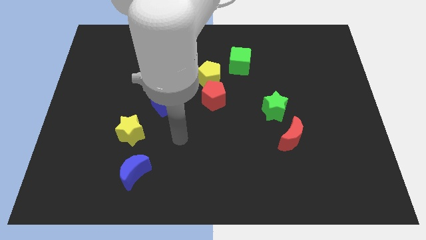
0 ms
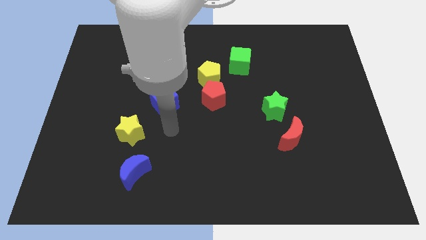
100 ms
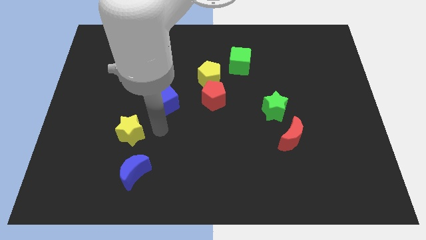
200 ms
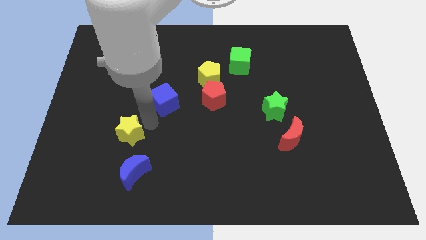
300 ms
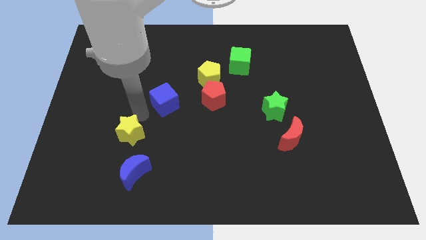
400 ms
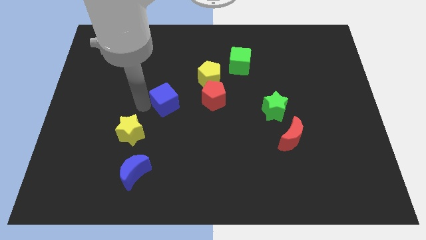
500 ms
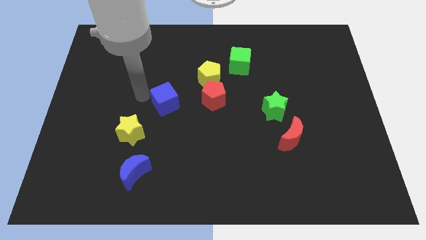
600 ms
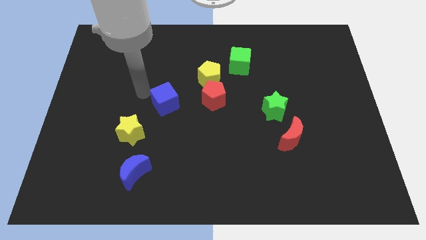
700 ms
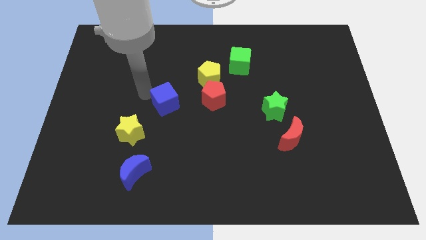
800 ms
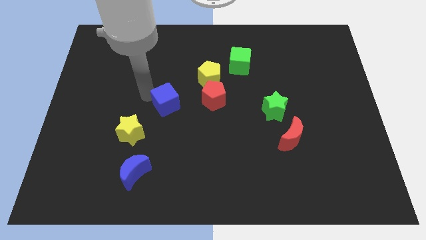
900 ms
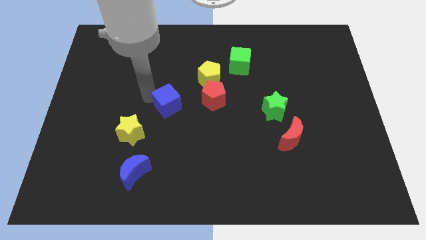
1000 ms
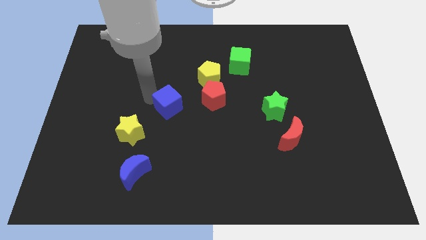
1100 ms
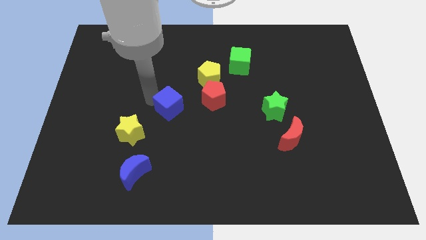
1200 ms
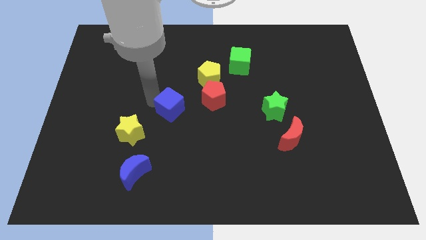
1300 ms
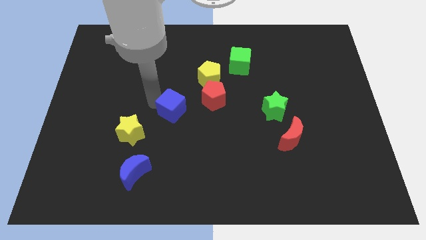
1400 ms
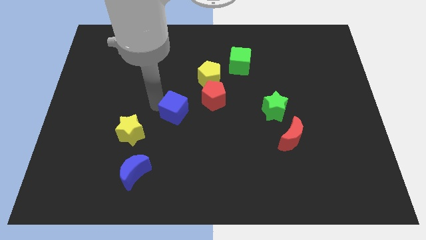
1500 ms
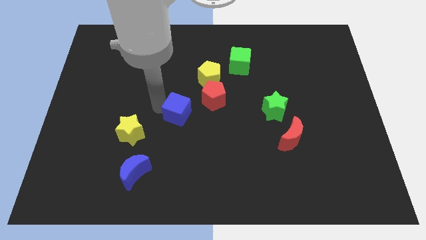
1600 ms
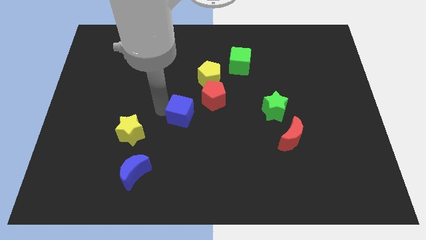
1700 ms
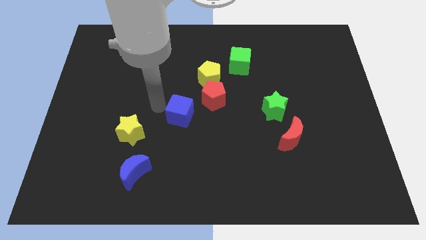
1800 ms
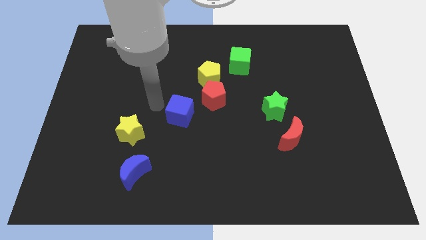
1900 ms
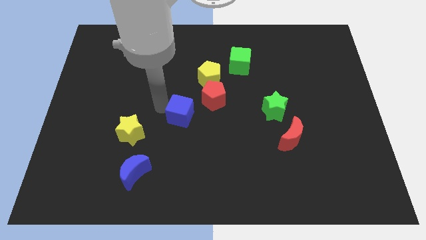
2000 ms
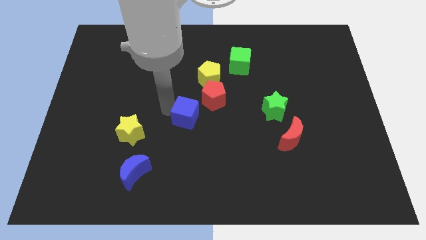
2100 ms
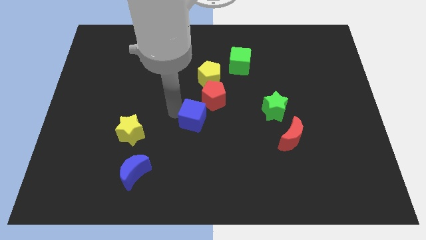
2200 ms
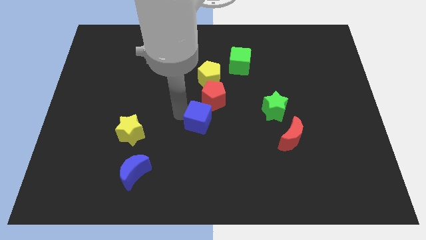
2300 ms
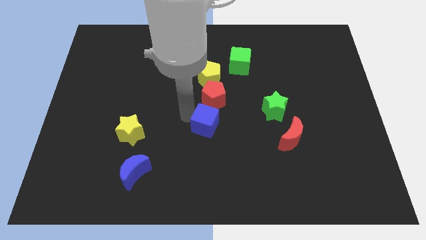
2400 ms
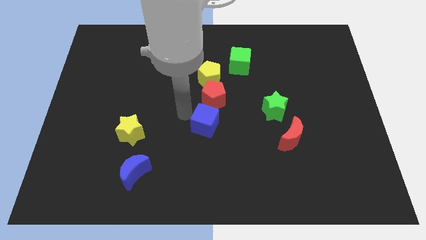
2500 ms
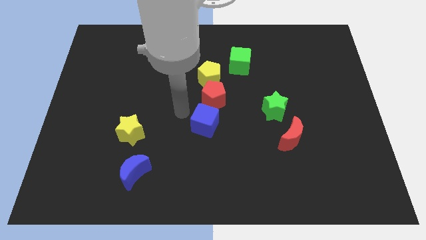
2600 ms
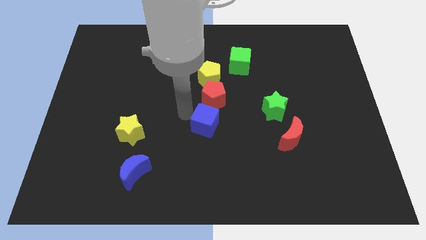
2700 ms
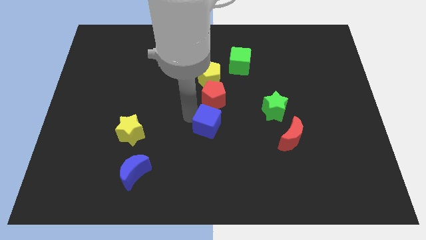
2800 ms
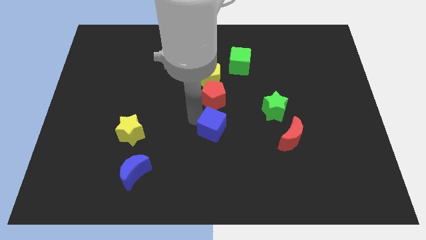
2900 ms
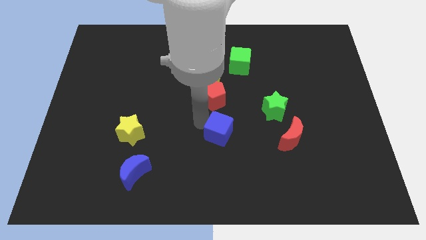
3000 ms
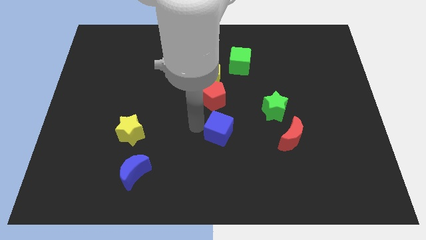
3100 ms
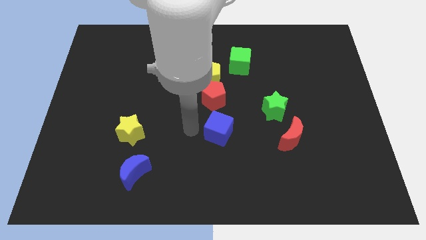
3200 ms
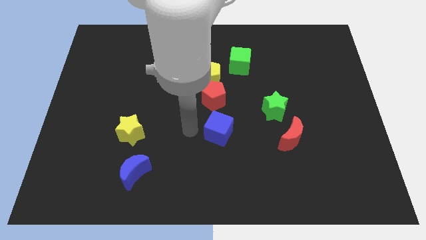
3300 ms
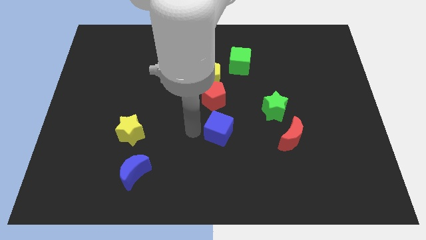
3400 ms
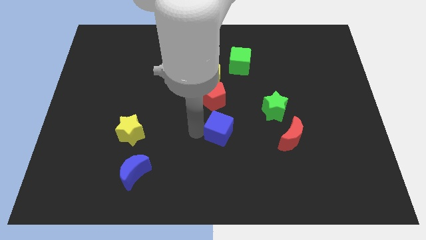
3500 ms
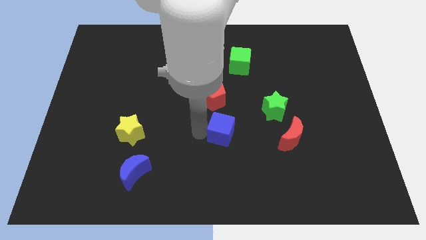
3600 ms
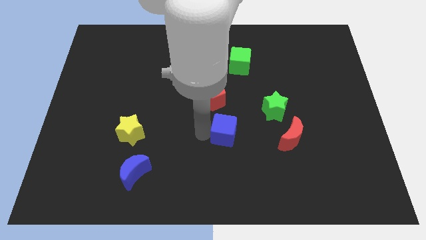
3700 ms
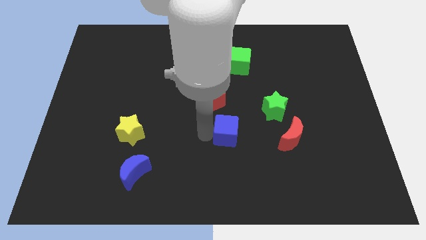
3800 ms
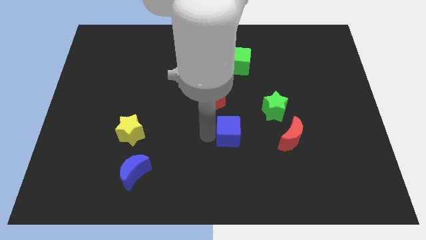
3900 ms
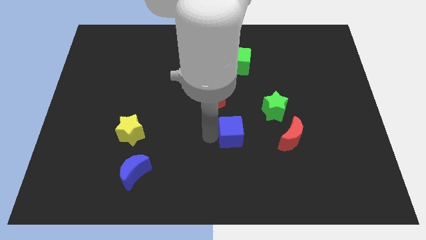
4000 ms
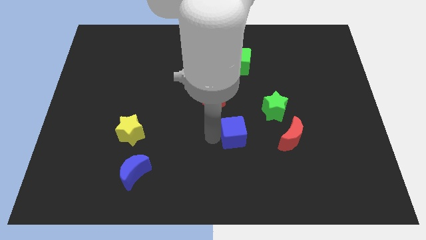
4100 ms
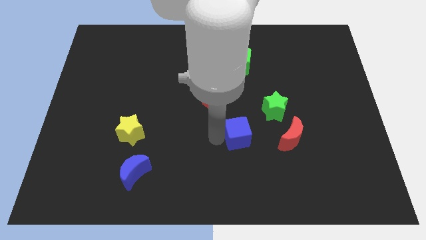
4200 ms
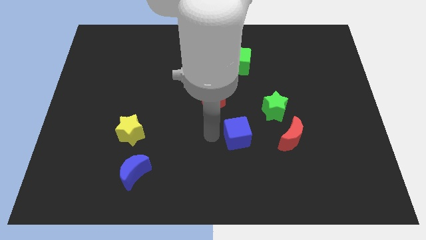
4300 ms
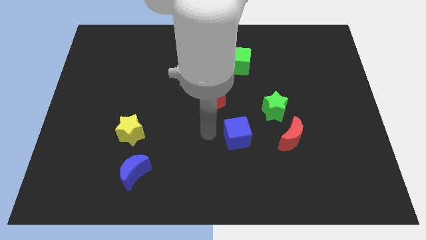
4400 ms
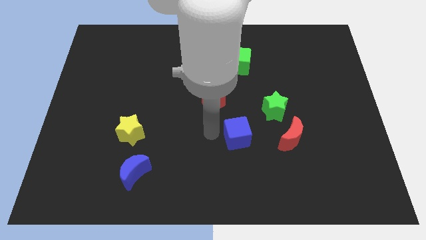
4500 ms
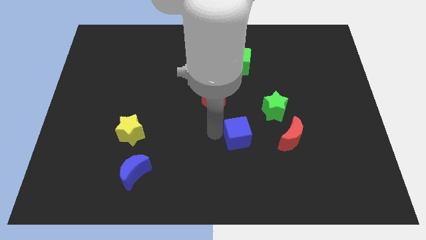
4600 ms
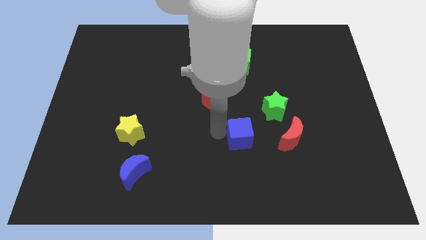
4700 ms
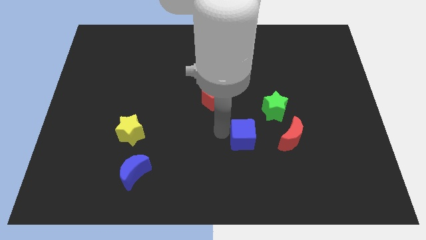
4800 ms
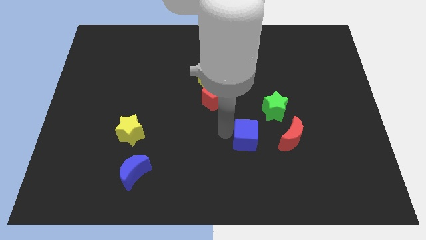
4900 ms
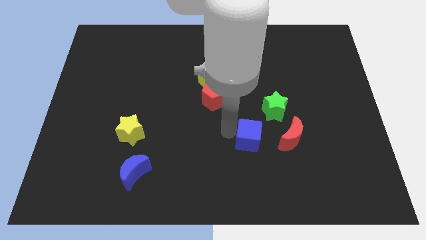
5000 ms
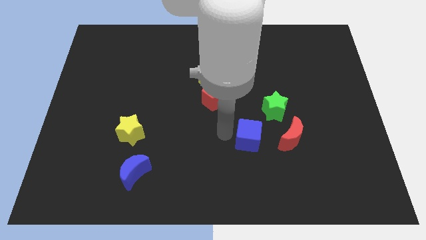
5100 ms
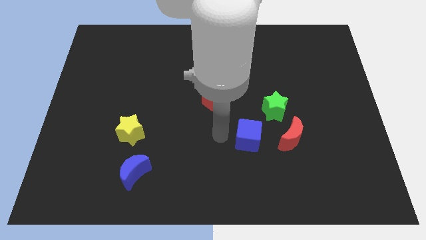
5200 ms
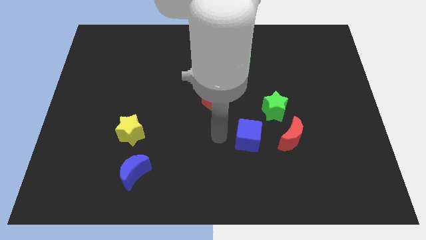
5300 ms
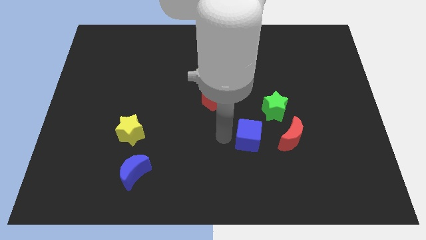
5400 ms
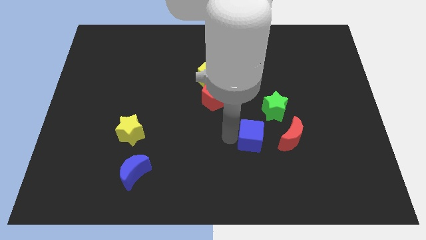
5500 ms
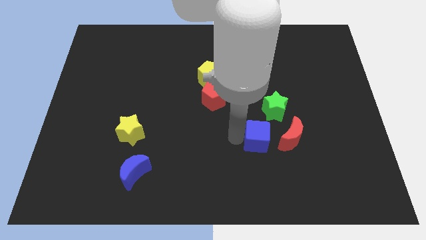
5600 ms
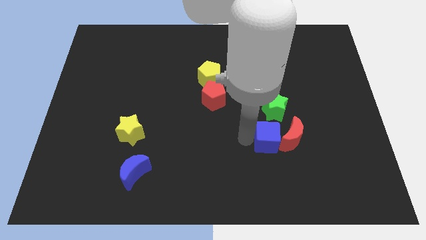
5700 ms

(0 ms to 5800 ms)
put the blue cube towards the red moon

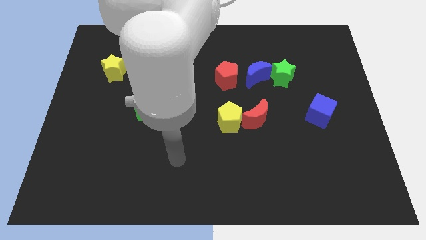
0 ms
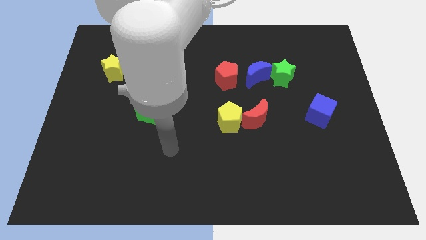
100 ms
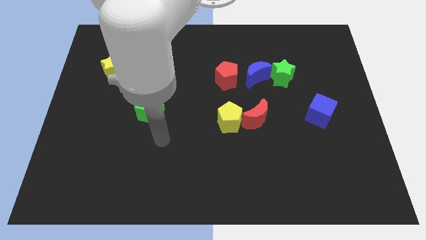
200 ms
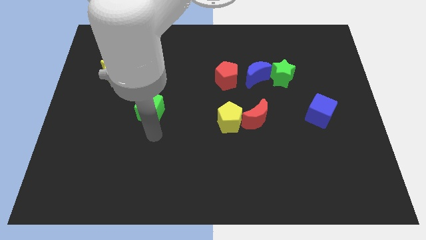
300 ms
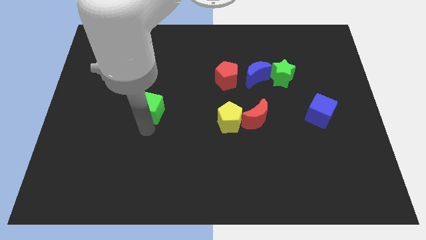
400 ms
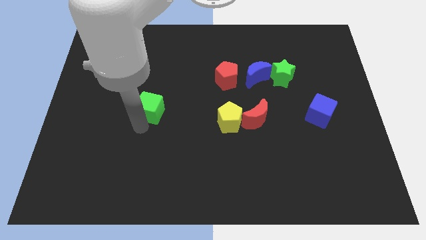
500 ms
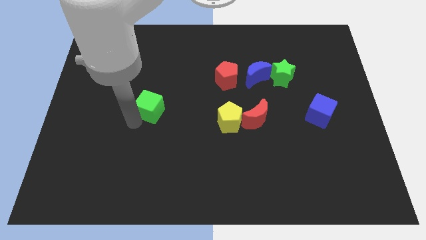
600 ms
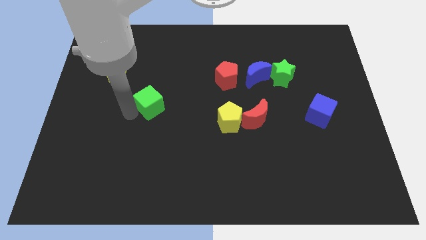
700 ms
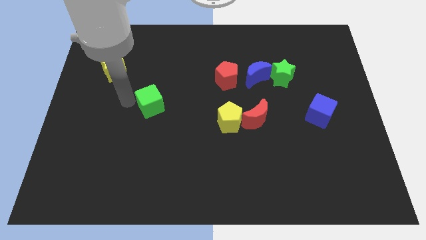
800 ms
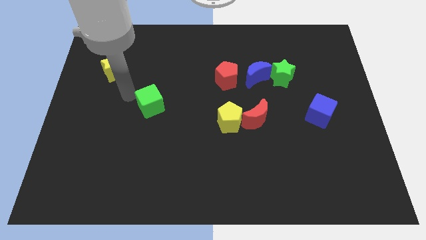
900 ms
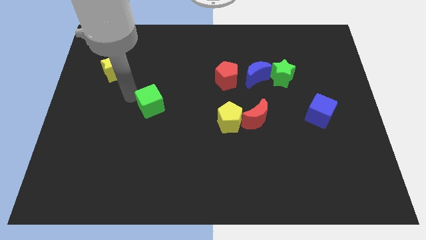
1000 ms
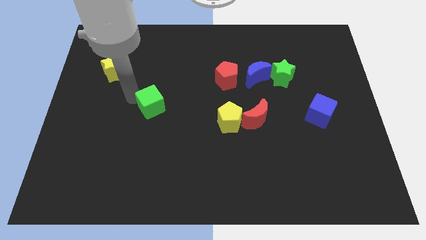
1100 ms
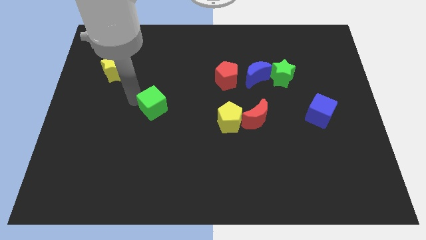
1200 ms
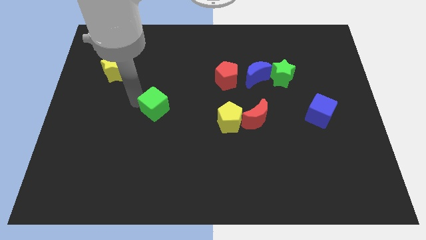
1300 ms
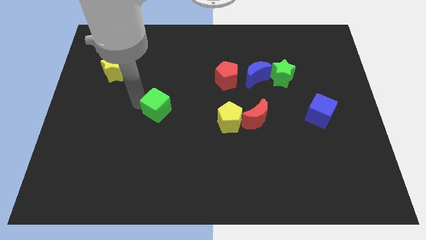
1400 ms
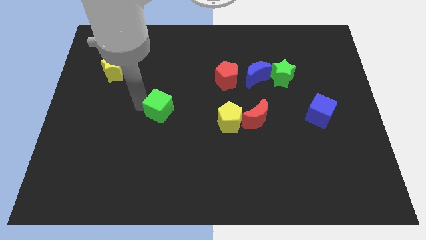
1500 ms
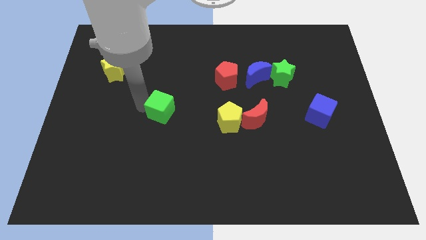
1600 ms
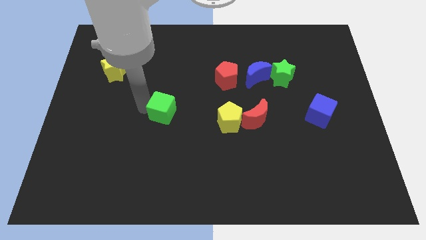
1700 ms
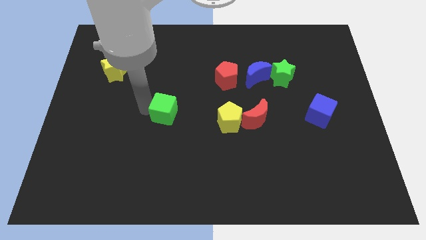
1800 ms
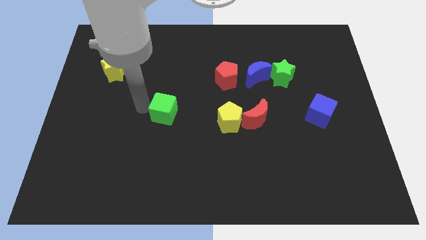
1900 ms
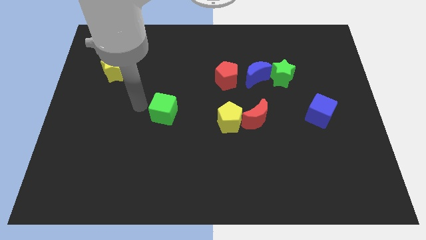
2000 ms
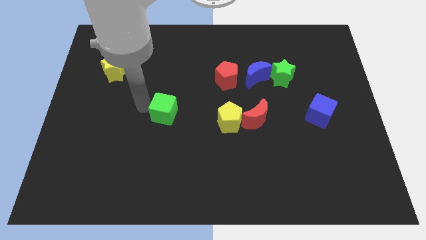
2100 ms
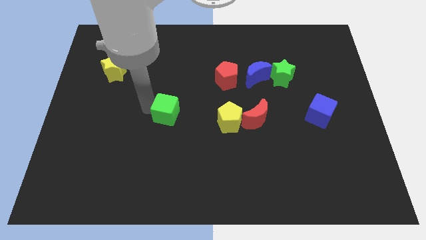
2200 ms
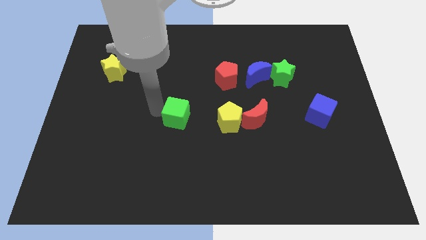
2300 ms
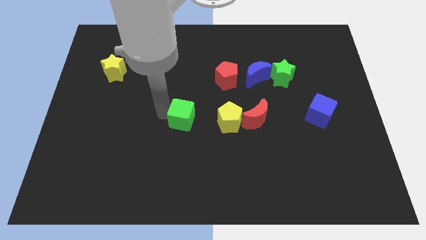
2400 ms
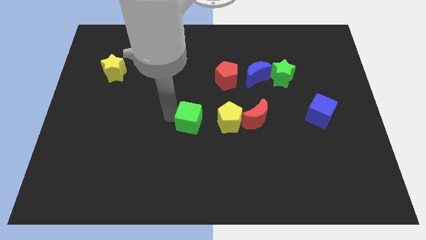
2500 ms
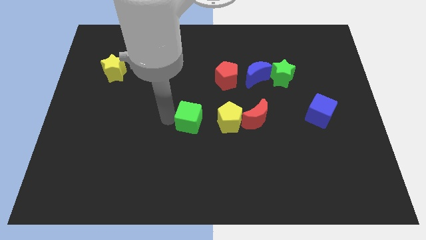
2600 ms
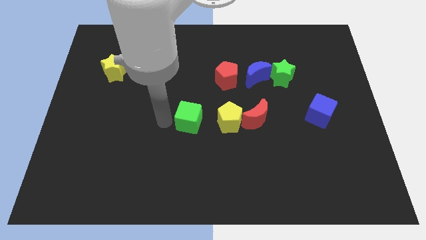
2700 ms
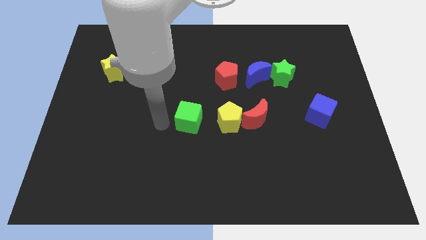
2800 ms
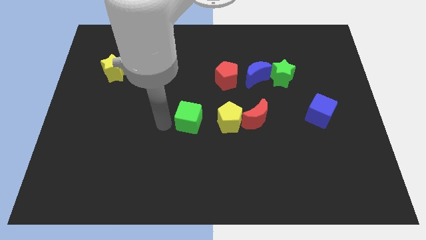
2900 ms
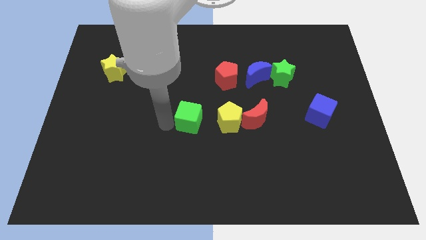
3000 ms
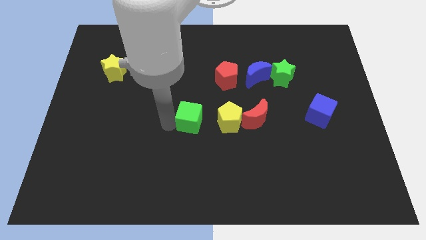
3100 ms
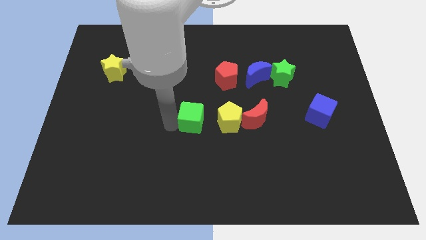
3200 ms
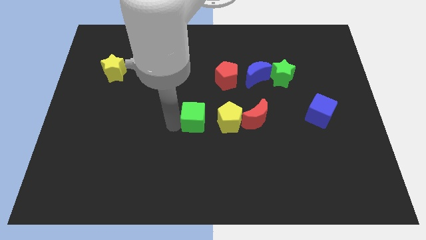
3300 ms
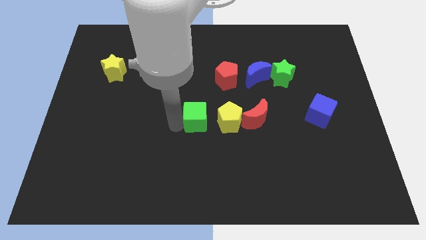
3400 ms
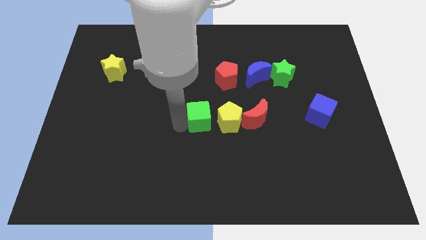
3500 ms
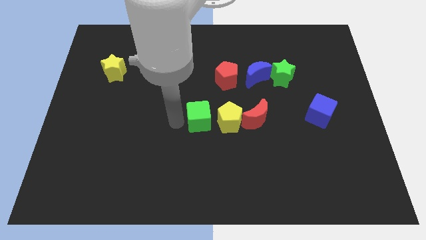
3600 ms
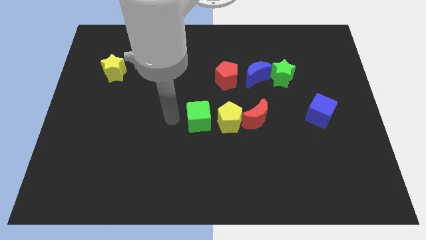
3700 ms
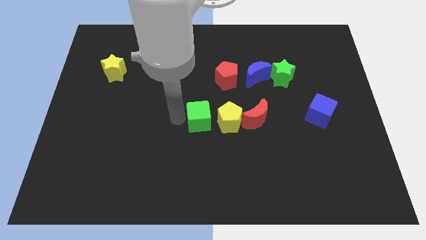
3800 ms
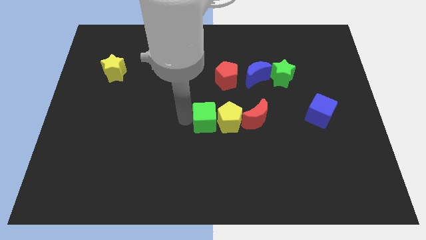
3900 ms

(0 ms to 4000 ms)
slide the green cube close to the yellow pentagon
